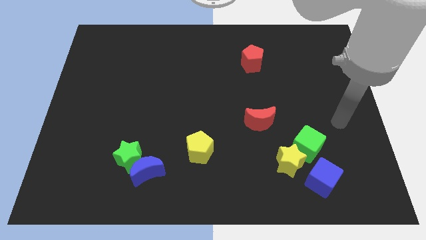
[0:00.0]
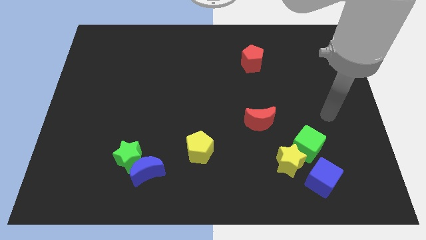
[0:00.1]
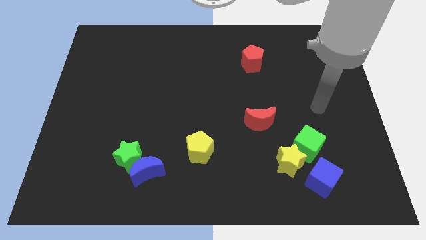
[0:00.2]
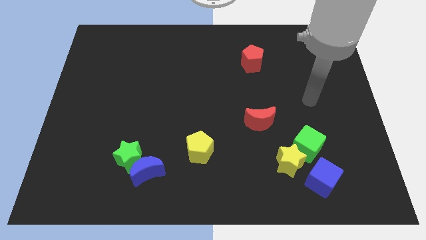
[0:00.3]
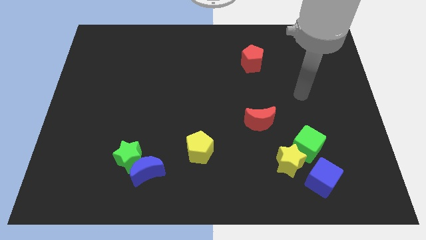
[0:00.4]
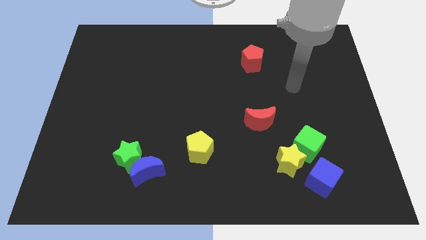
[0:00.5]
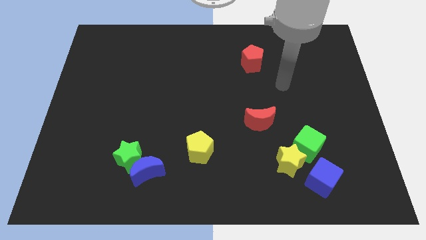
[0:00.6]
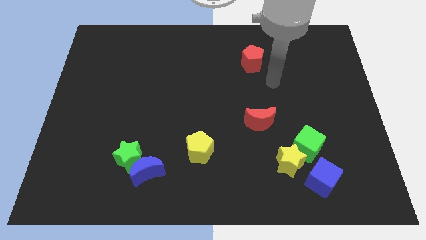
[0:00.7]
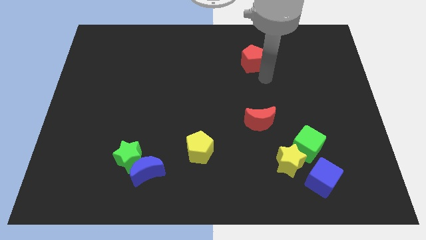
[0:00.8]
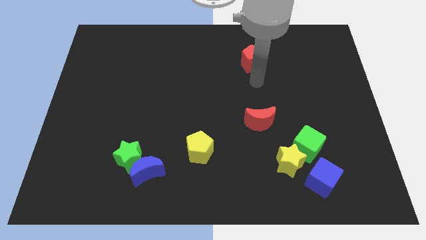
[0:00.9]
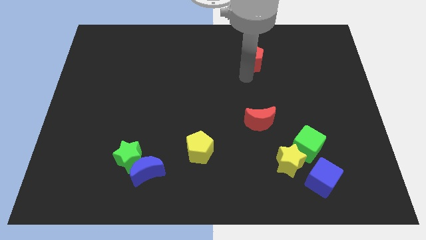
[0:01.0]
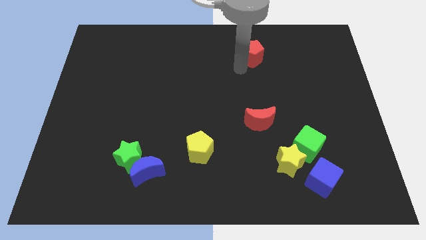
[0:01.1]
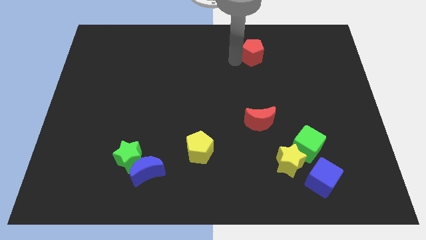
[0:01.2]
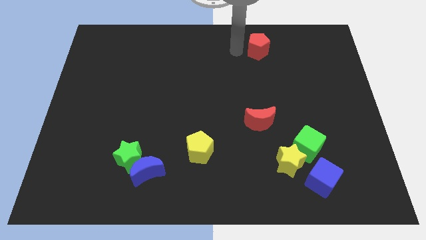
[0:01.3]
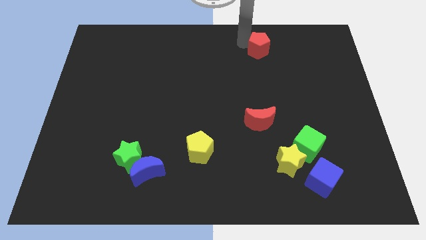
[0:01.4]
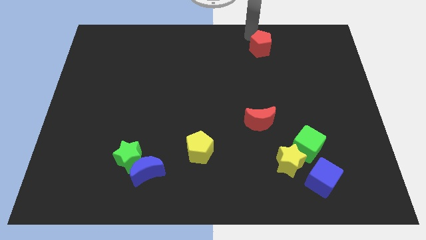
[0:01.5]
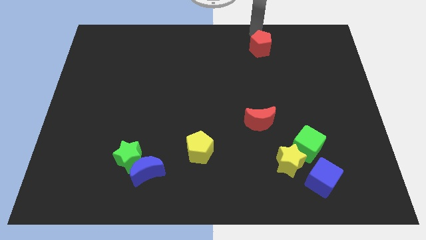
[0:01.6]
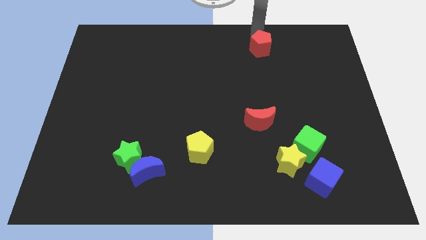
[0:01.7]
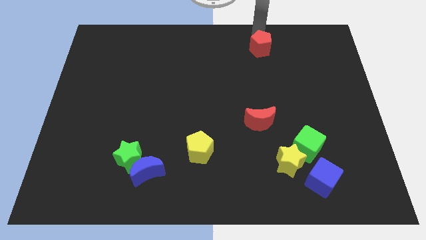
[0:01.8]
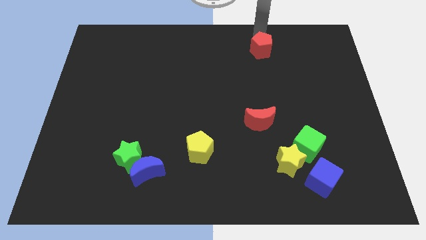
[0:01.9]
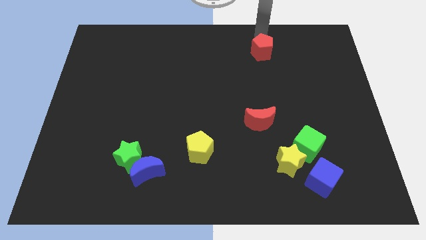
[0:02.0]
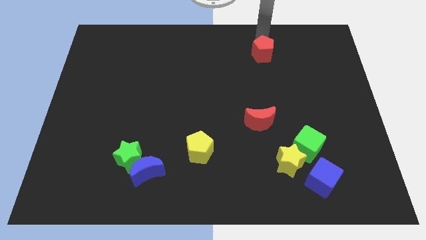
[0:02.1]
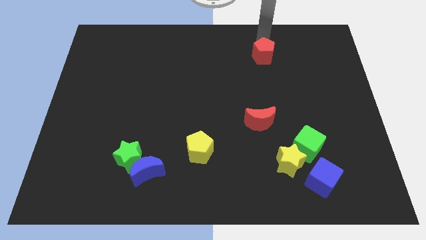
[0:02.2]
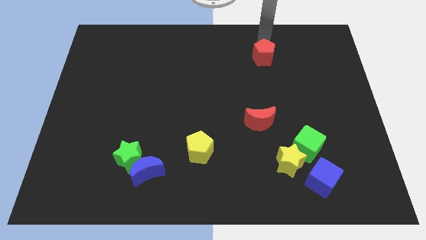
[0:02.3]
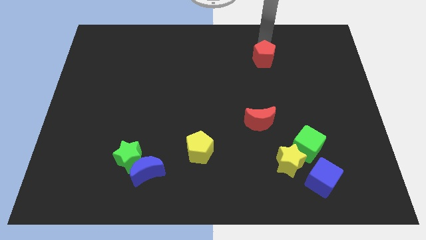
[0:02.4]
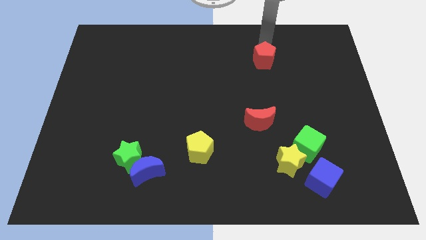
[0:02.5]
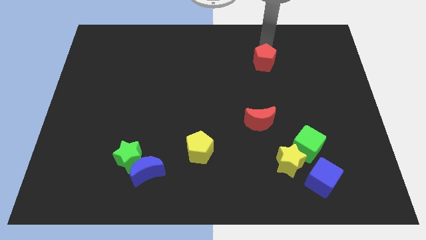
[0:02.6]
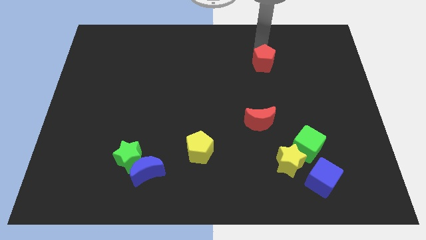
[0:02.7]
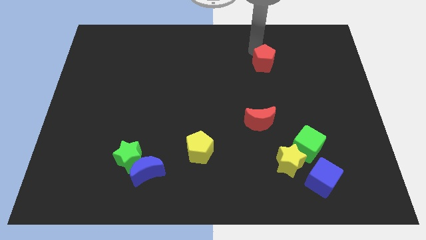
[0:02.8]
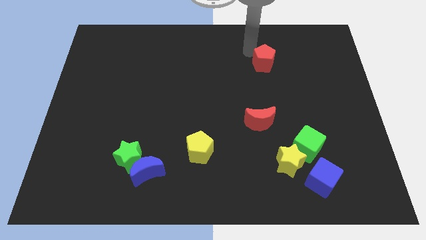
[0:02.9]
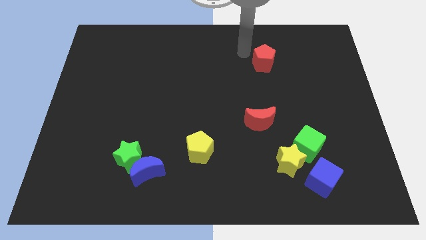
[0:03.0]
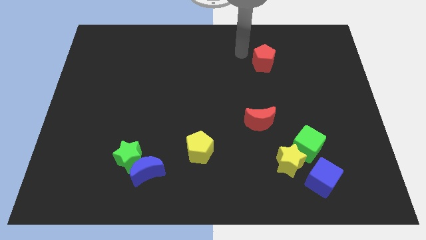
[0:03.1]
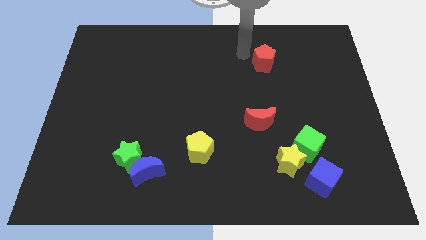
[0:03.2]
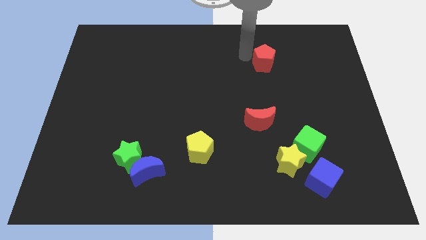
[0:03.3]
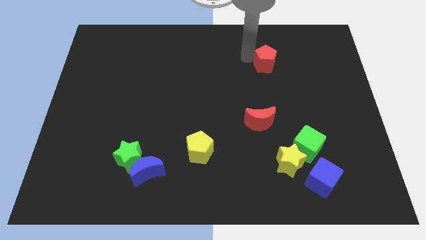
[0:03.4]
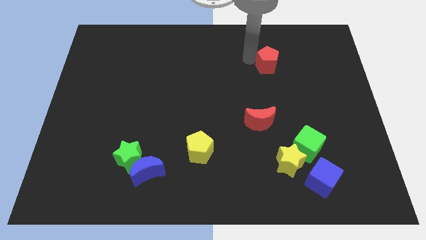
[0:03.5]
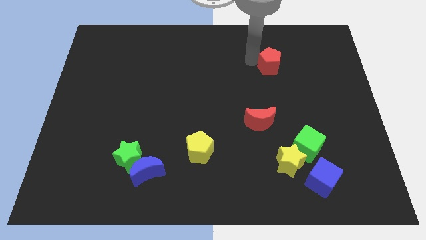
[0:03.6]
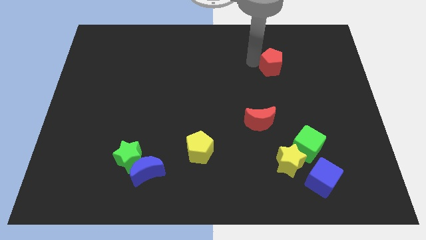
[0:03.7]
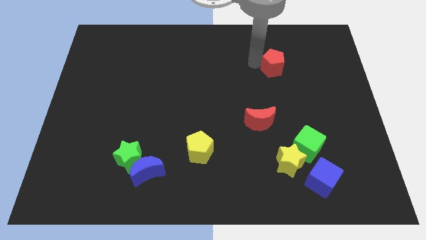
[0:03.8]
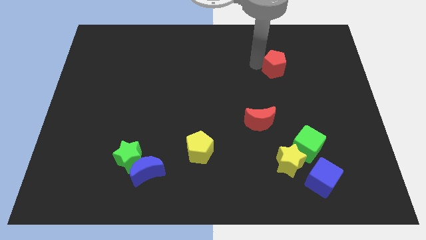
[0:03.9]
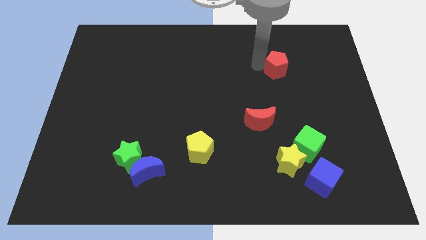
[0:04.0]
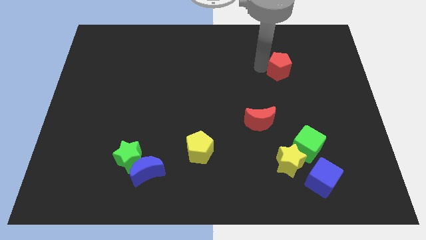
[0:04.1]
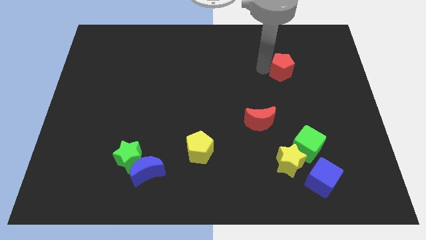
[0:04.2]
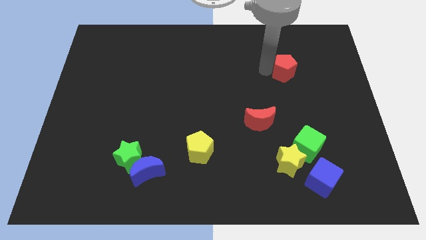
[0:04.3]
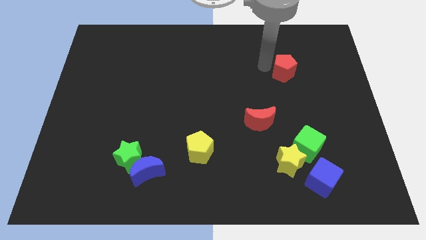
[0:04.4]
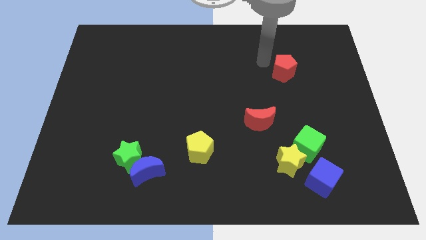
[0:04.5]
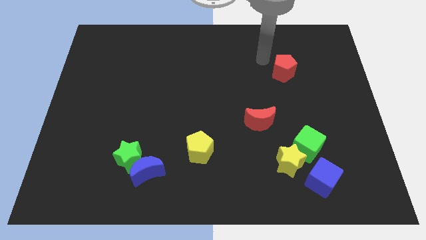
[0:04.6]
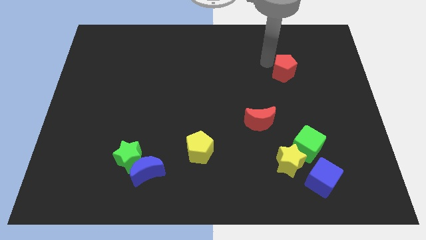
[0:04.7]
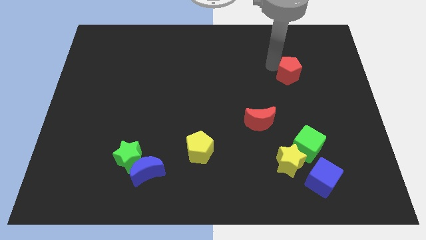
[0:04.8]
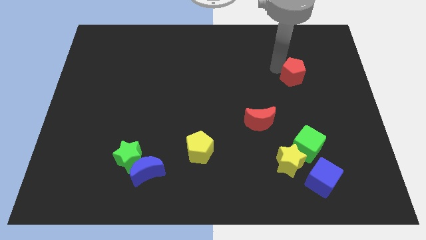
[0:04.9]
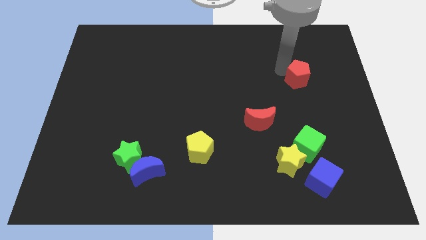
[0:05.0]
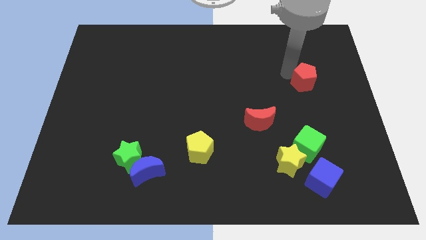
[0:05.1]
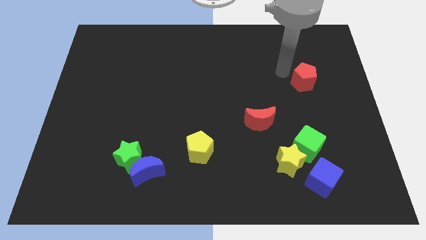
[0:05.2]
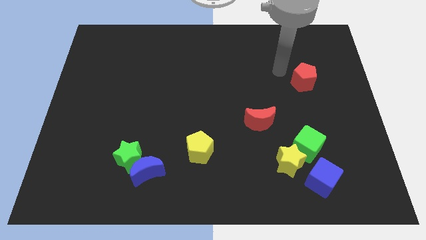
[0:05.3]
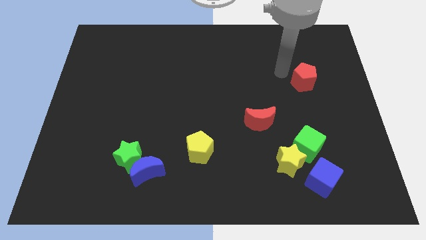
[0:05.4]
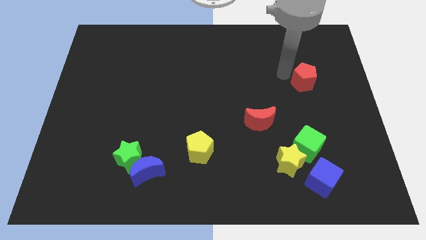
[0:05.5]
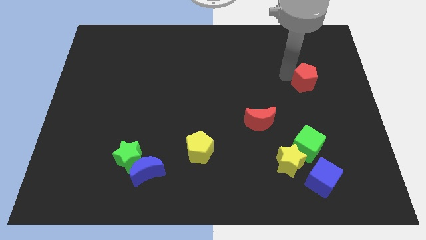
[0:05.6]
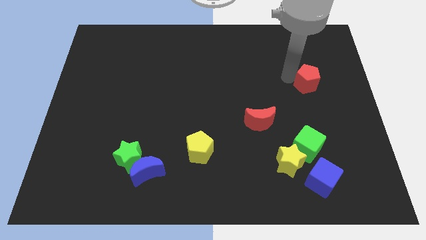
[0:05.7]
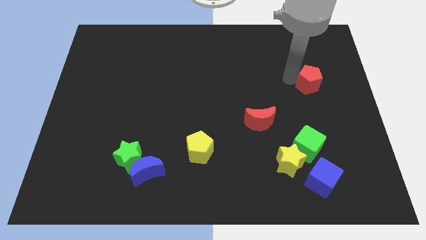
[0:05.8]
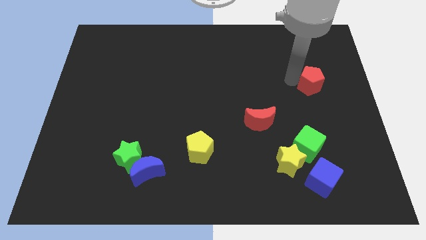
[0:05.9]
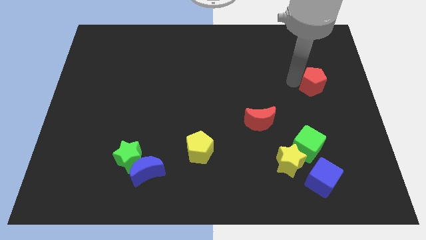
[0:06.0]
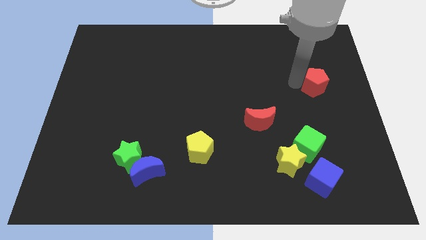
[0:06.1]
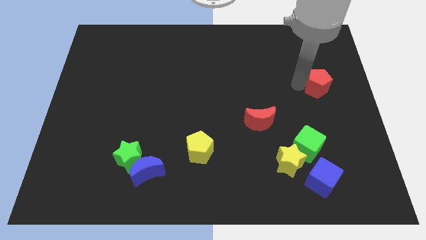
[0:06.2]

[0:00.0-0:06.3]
put the red pentagon to the right side
